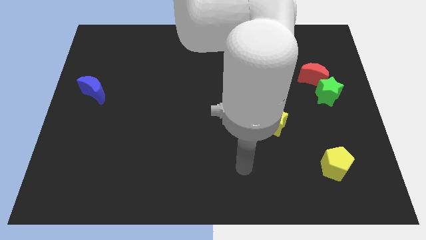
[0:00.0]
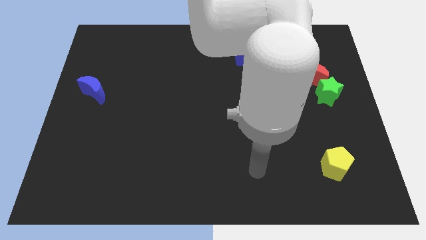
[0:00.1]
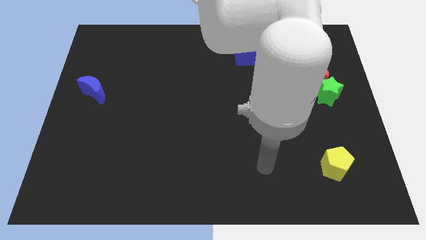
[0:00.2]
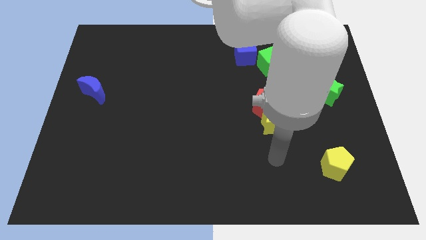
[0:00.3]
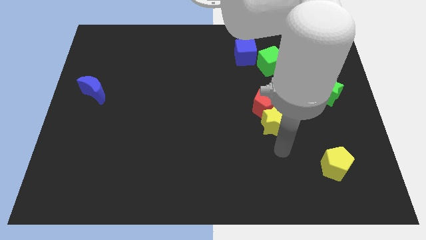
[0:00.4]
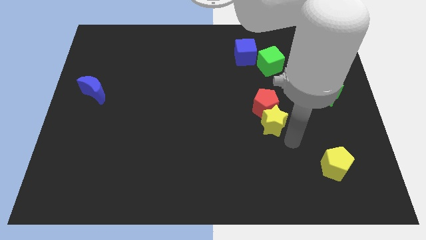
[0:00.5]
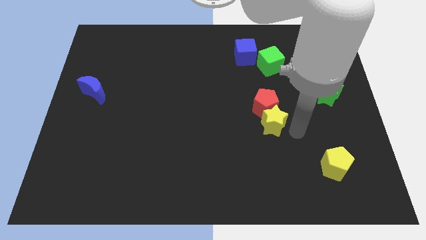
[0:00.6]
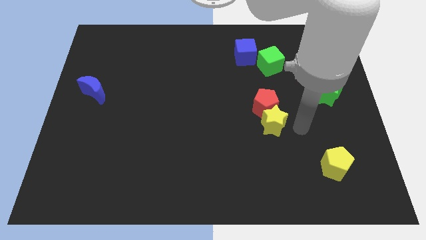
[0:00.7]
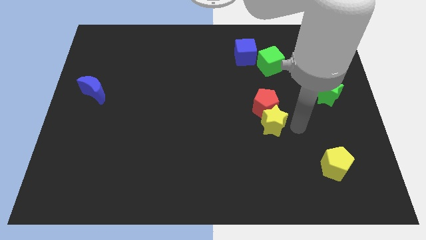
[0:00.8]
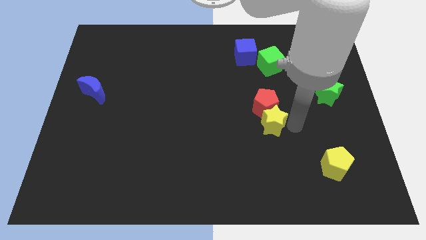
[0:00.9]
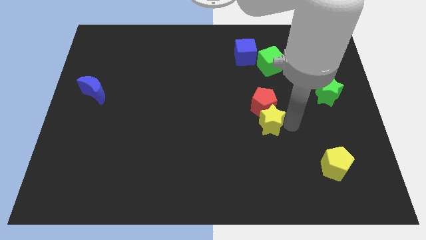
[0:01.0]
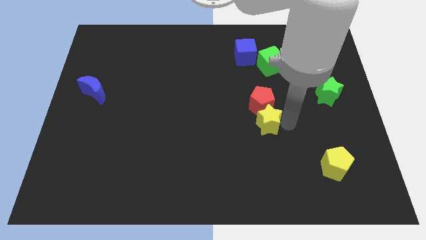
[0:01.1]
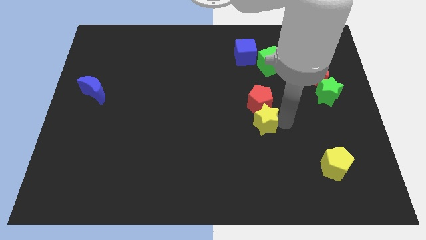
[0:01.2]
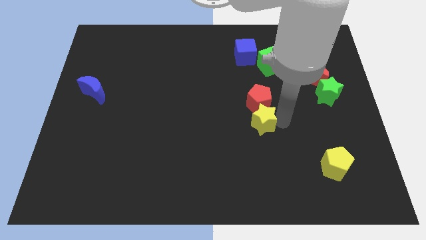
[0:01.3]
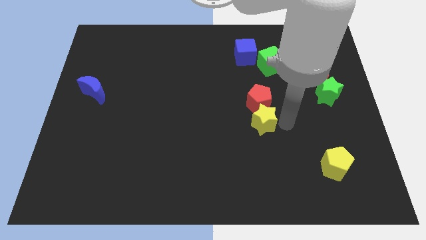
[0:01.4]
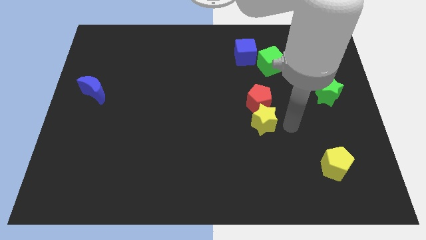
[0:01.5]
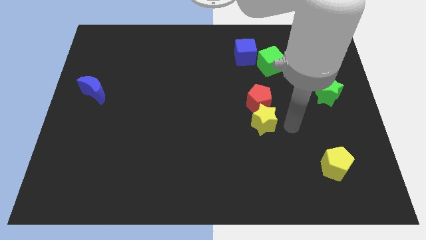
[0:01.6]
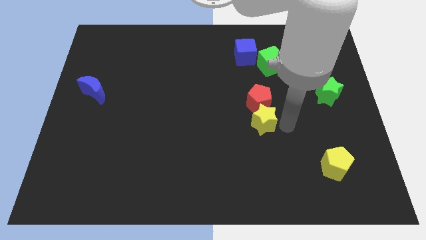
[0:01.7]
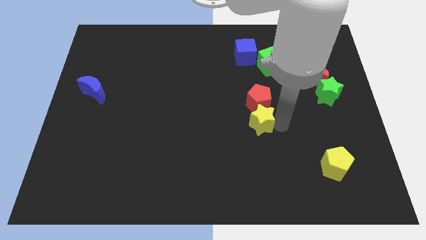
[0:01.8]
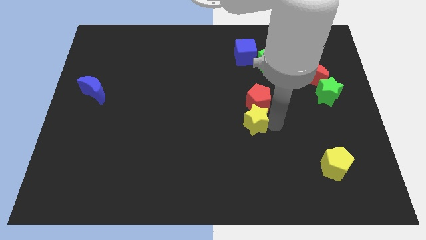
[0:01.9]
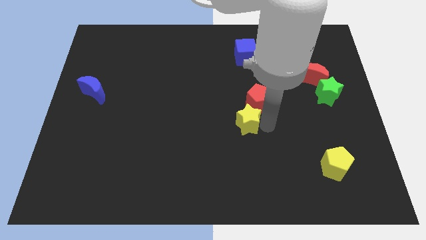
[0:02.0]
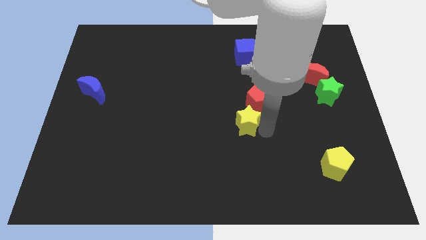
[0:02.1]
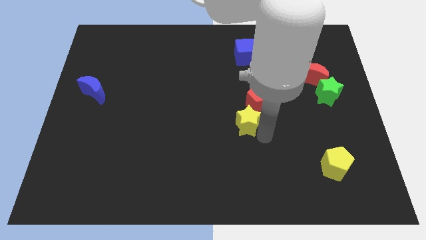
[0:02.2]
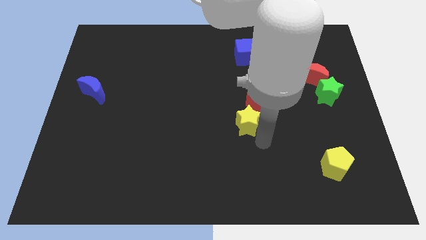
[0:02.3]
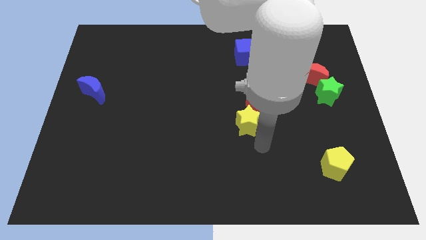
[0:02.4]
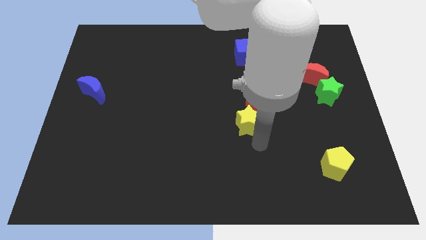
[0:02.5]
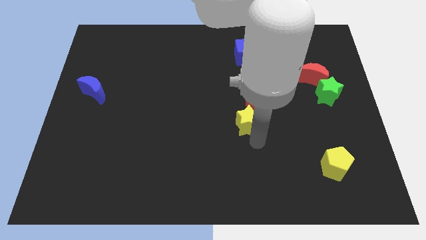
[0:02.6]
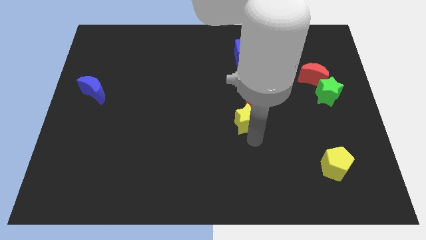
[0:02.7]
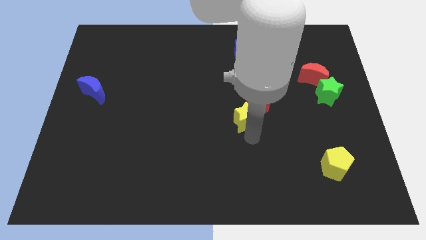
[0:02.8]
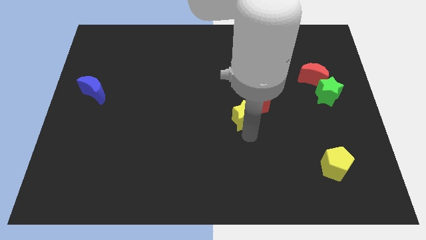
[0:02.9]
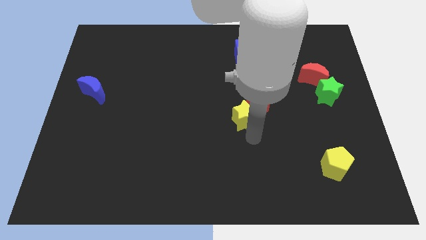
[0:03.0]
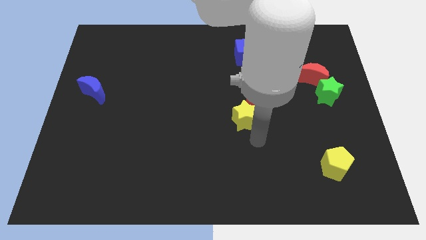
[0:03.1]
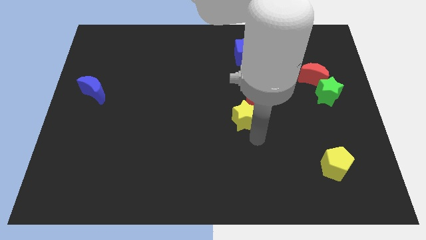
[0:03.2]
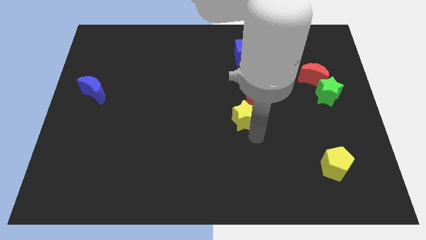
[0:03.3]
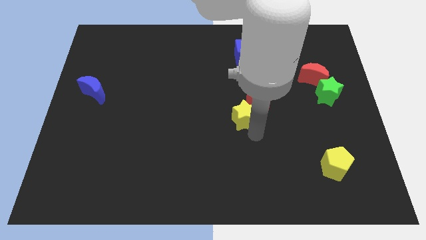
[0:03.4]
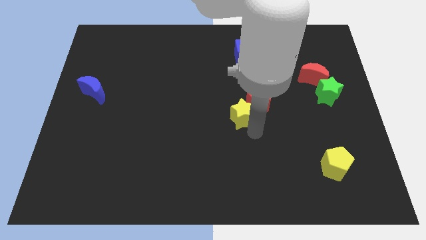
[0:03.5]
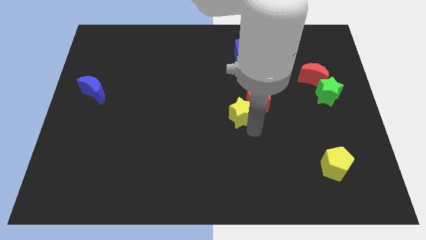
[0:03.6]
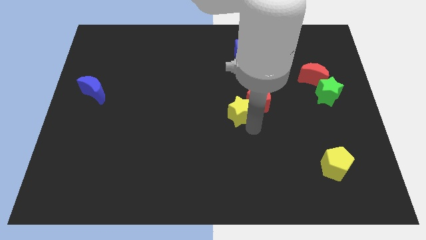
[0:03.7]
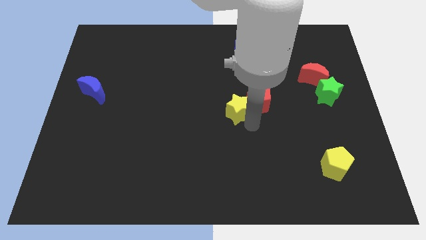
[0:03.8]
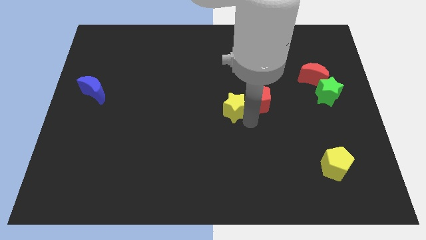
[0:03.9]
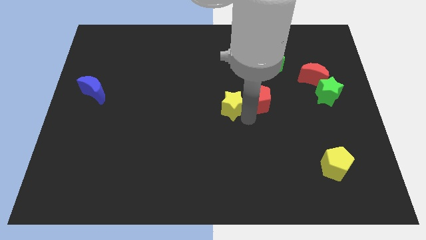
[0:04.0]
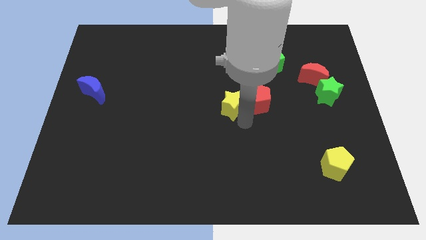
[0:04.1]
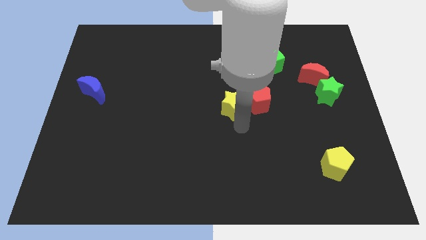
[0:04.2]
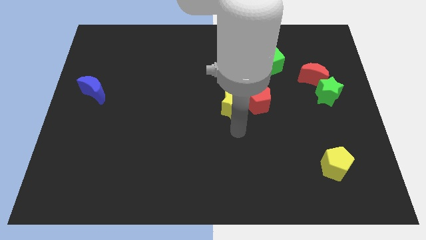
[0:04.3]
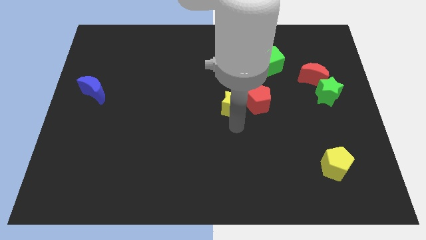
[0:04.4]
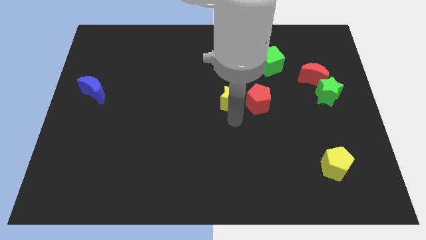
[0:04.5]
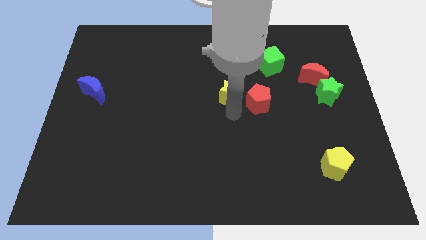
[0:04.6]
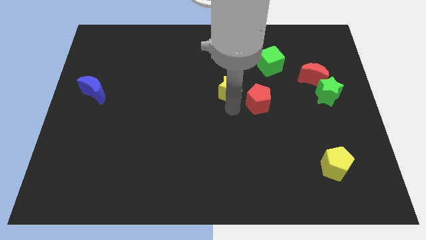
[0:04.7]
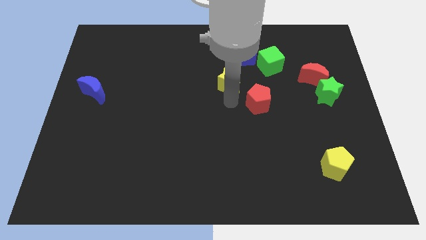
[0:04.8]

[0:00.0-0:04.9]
put the yellow star to the bottom left side of the blue cube

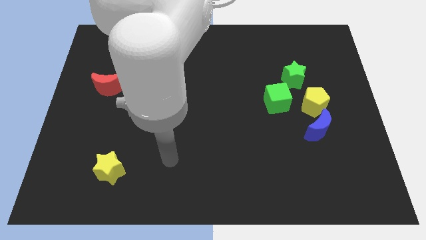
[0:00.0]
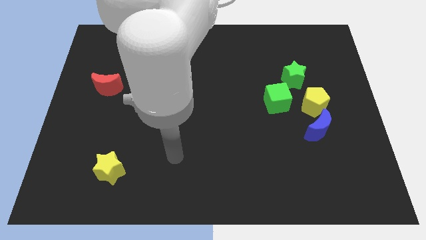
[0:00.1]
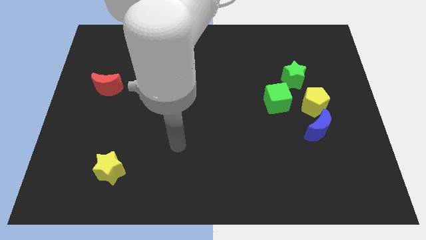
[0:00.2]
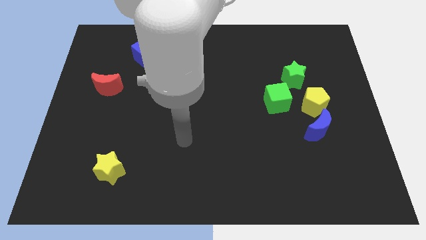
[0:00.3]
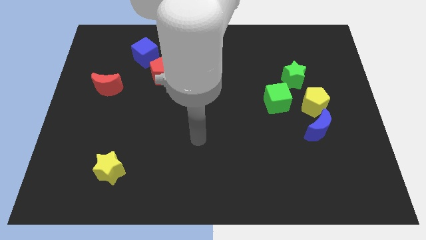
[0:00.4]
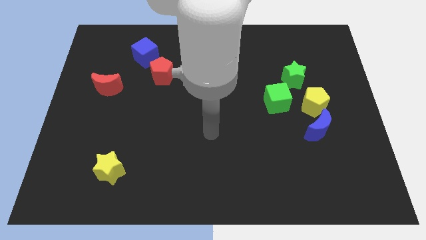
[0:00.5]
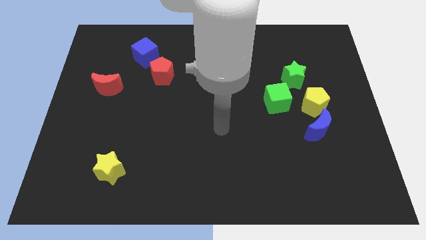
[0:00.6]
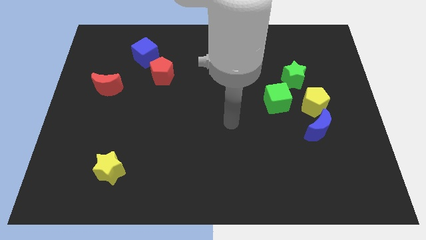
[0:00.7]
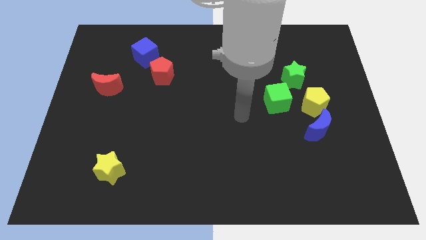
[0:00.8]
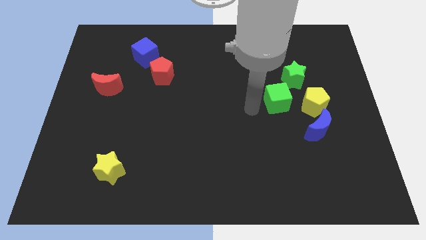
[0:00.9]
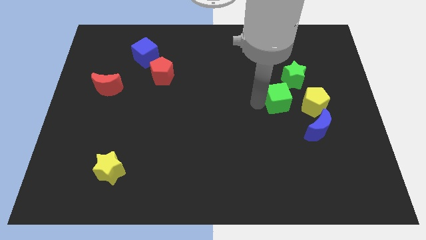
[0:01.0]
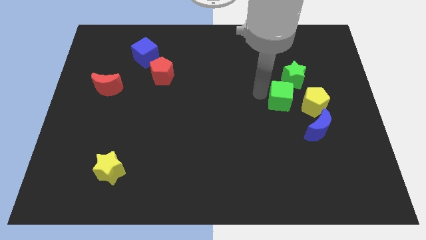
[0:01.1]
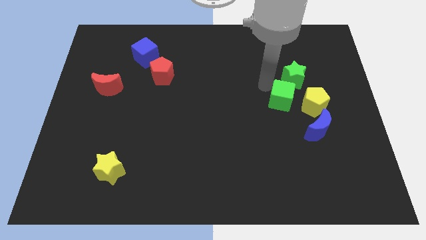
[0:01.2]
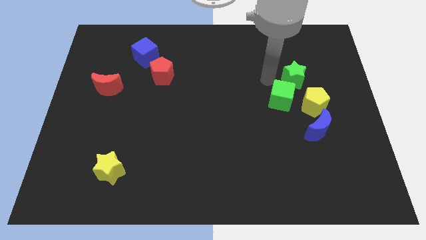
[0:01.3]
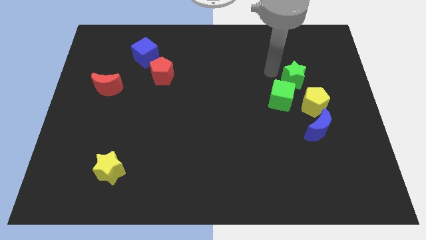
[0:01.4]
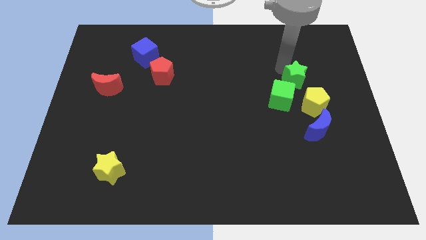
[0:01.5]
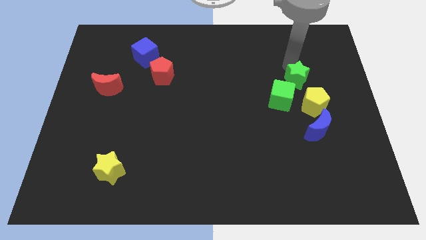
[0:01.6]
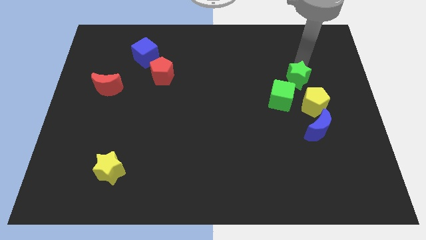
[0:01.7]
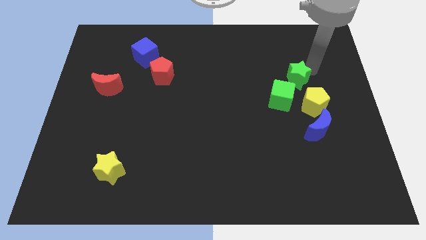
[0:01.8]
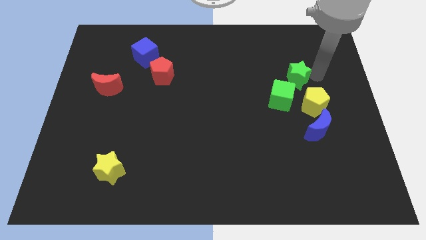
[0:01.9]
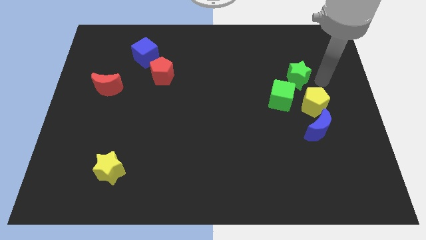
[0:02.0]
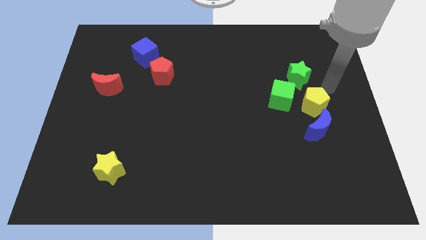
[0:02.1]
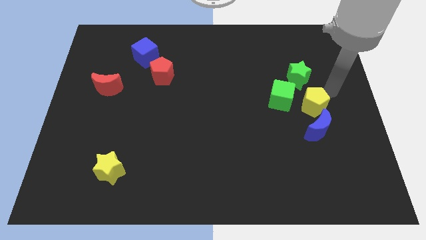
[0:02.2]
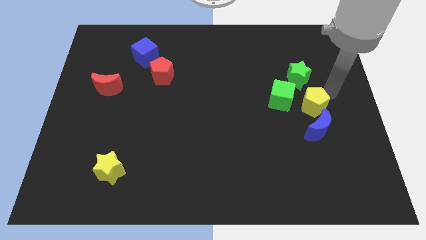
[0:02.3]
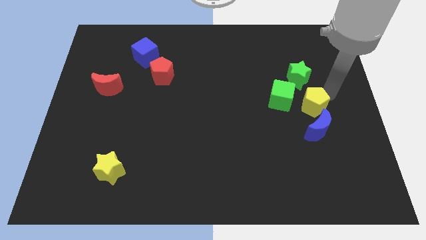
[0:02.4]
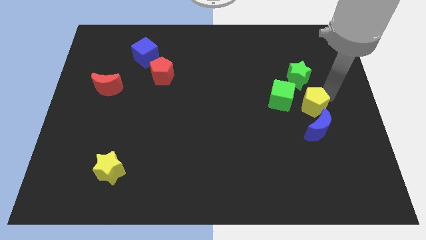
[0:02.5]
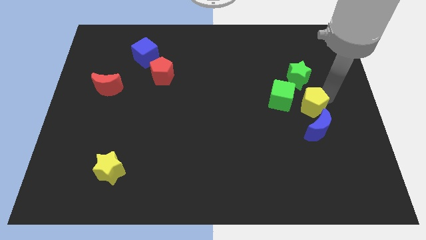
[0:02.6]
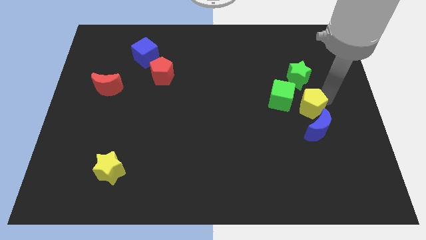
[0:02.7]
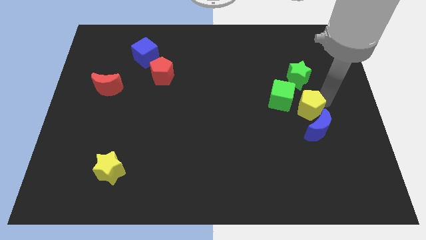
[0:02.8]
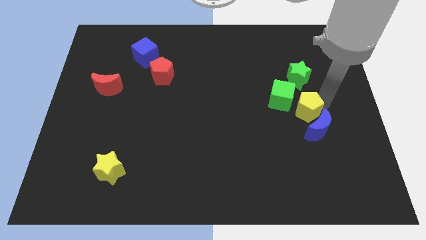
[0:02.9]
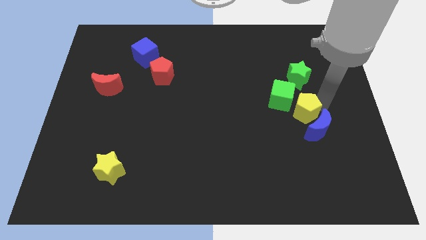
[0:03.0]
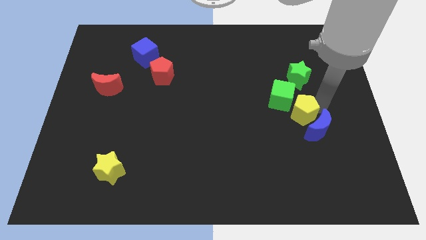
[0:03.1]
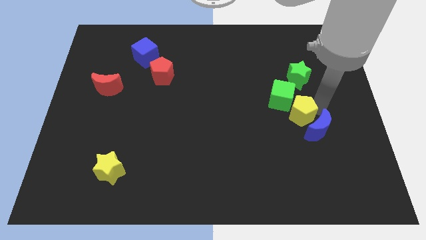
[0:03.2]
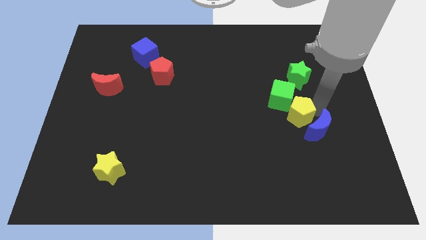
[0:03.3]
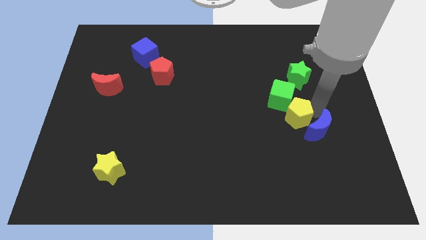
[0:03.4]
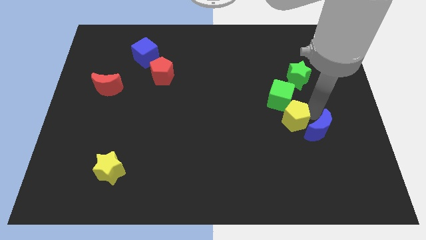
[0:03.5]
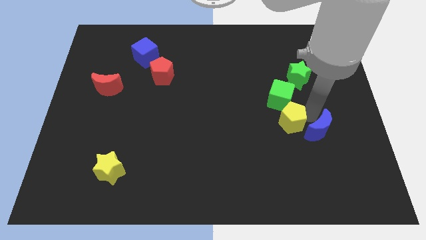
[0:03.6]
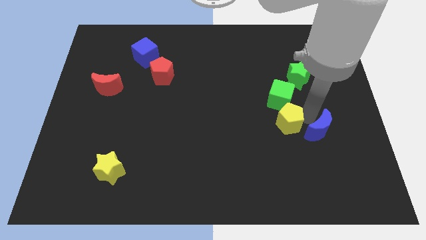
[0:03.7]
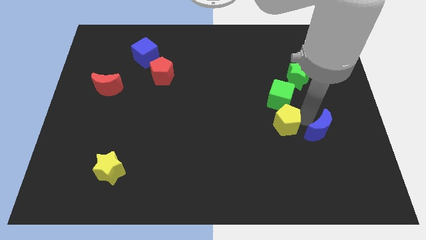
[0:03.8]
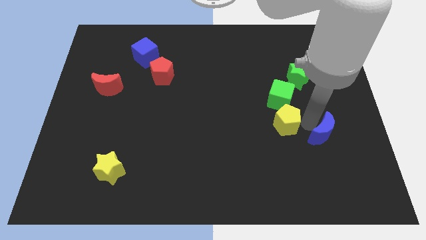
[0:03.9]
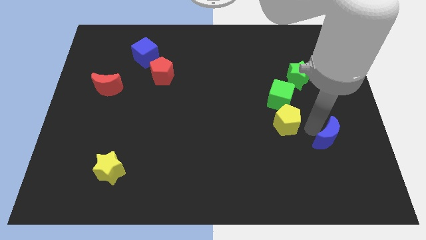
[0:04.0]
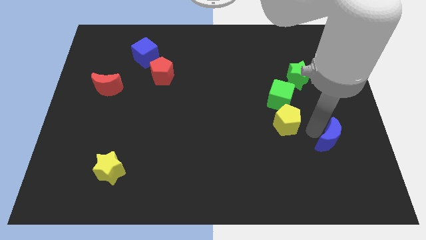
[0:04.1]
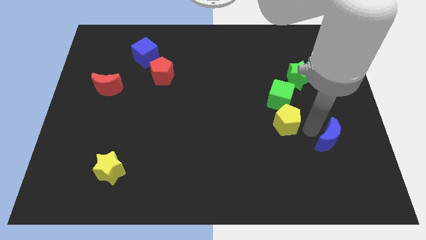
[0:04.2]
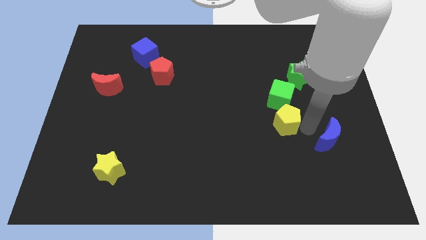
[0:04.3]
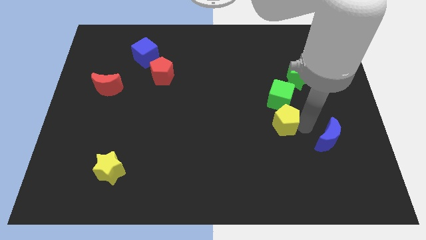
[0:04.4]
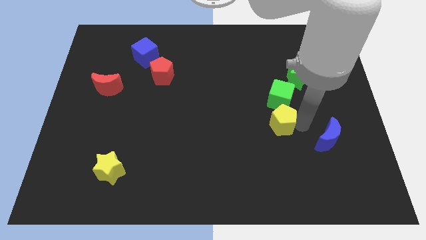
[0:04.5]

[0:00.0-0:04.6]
move the yellow pentagon to the bottom left side of the green cube
